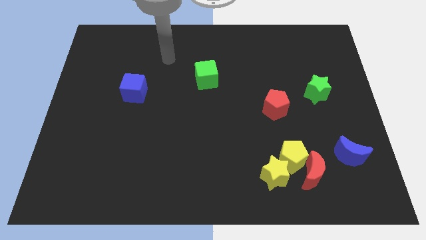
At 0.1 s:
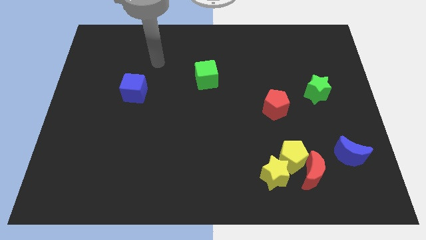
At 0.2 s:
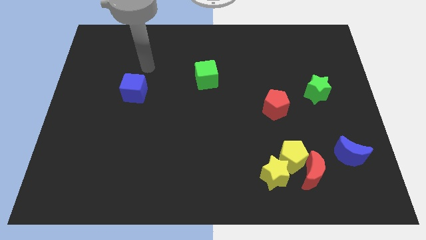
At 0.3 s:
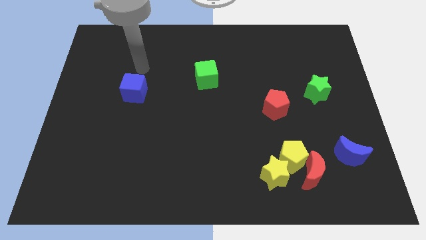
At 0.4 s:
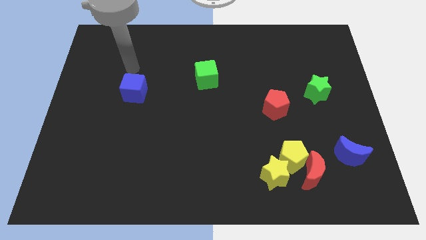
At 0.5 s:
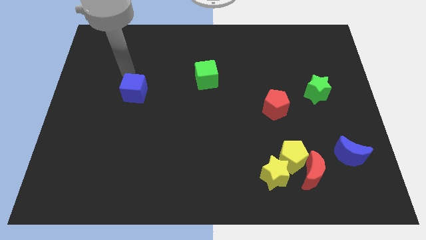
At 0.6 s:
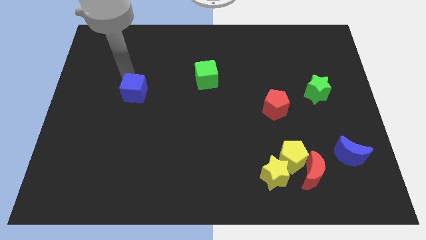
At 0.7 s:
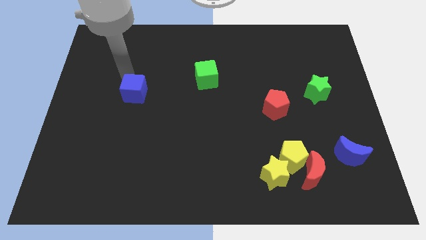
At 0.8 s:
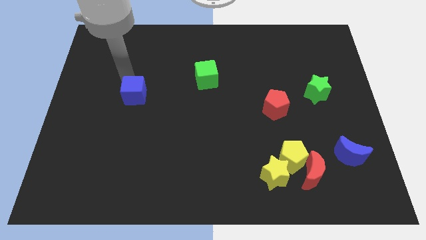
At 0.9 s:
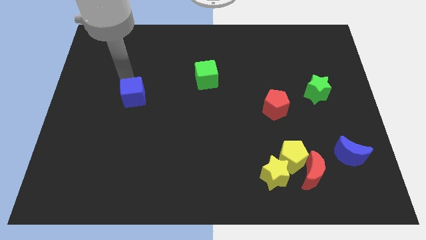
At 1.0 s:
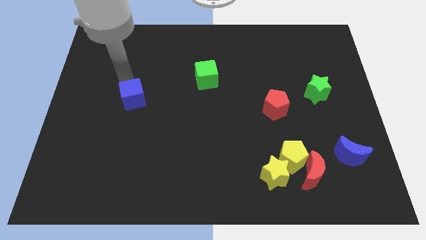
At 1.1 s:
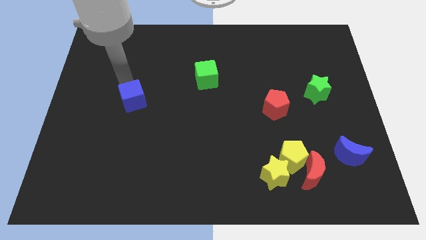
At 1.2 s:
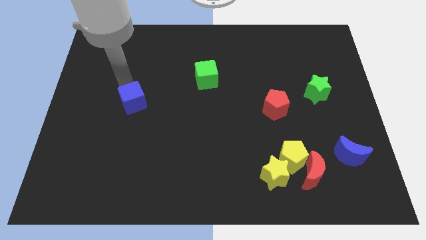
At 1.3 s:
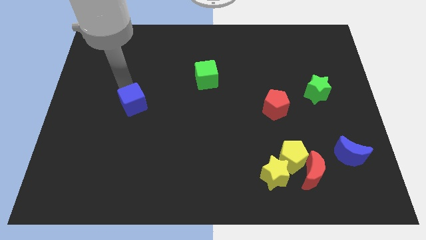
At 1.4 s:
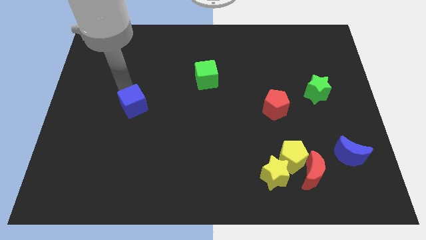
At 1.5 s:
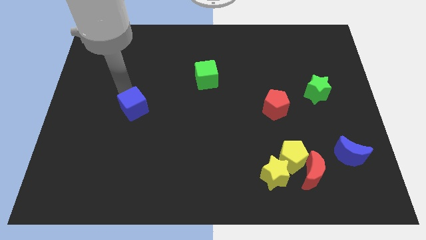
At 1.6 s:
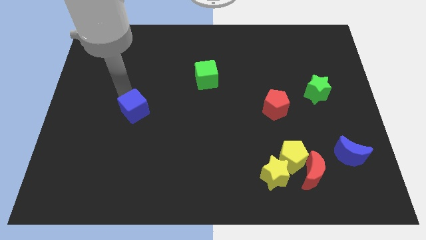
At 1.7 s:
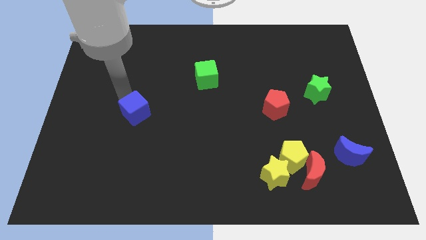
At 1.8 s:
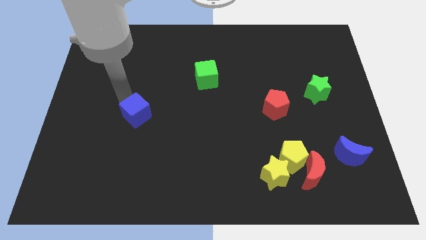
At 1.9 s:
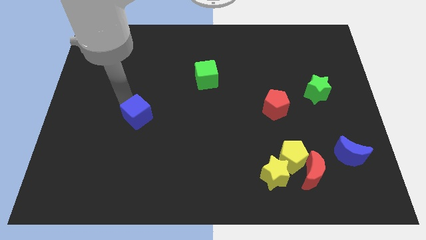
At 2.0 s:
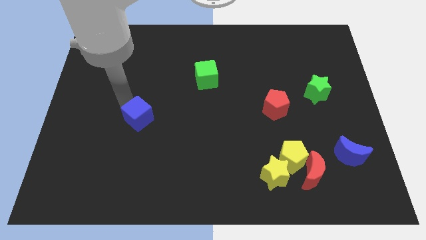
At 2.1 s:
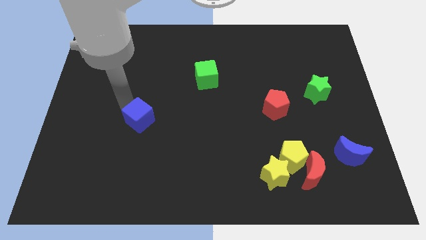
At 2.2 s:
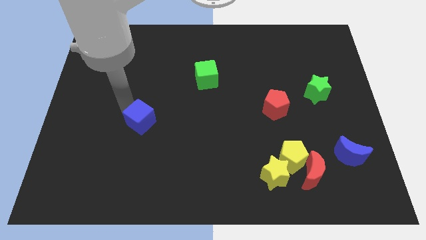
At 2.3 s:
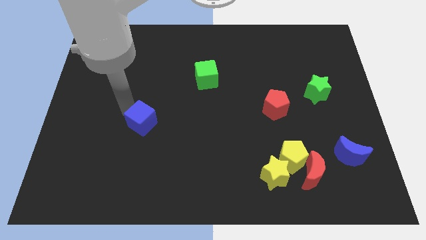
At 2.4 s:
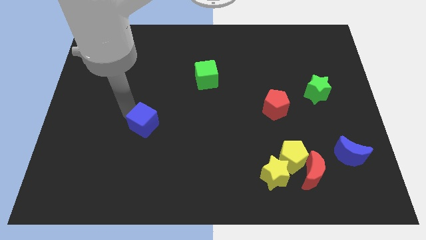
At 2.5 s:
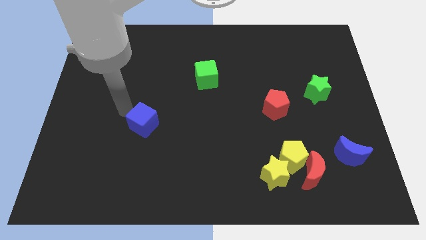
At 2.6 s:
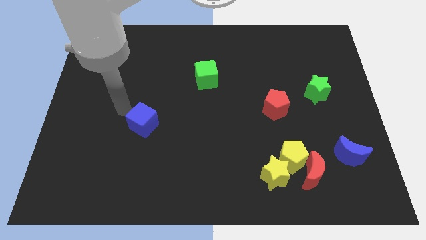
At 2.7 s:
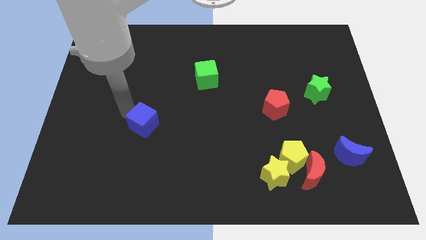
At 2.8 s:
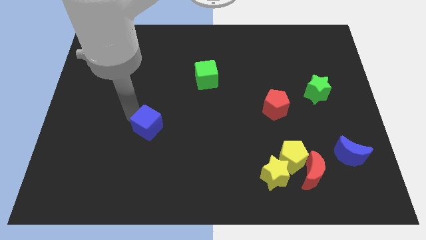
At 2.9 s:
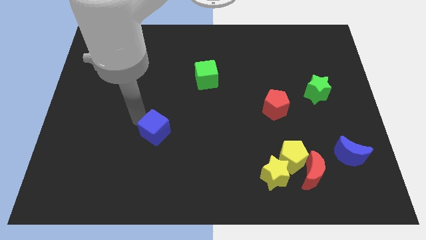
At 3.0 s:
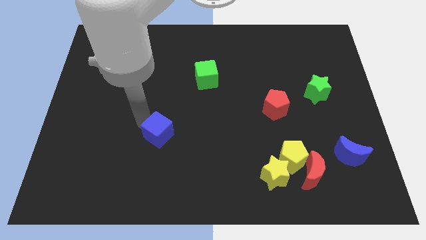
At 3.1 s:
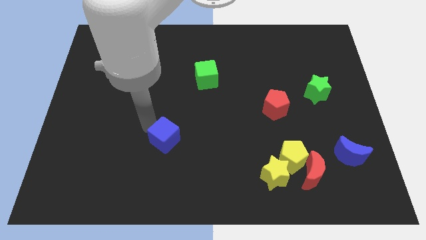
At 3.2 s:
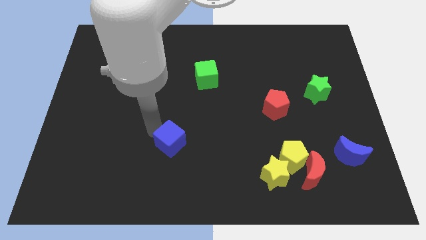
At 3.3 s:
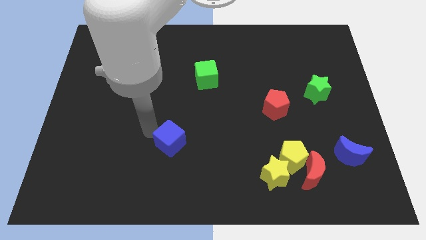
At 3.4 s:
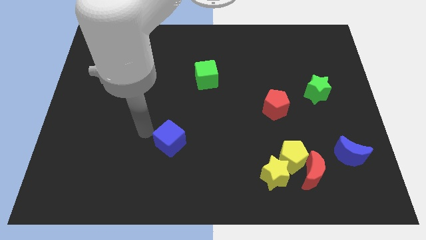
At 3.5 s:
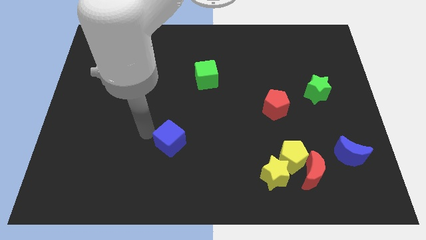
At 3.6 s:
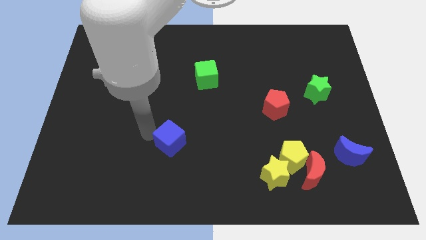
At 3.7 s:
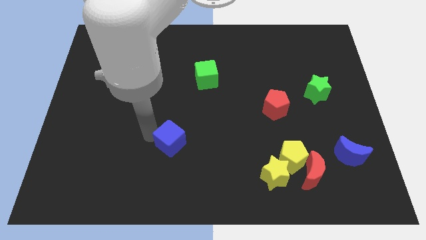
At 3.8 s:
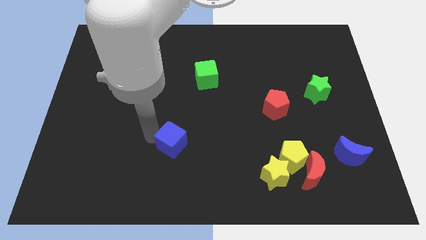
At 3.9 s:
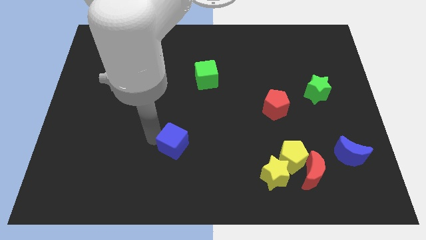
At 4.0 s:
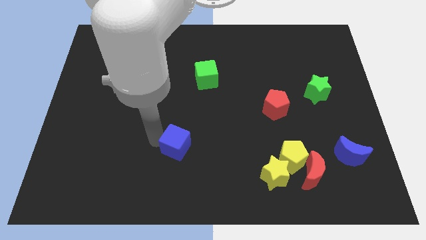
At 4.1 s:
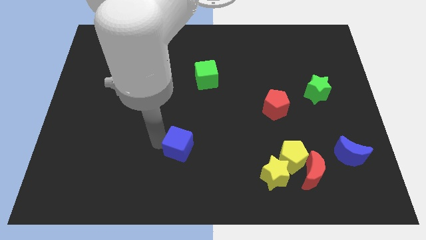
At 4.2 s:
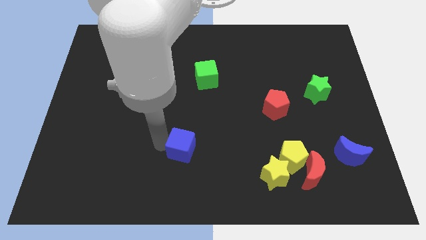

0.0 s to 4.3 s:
move the blue cube downwards and then right

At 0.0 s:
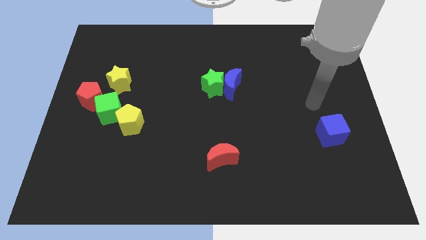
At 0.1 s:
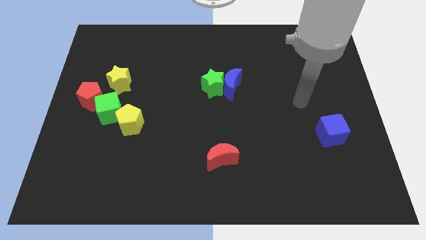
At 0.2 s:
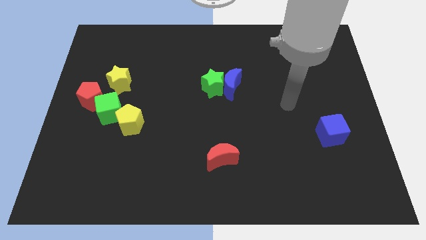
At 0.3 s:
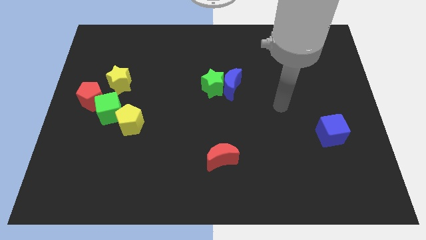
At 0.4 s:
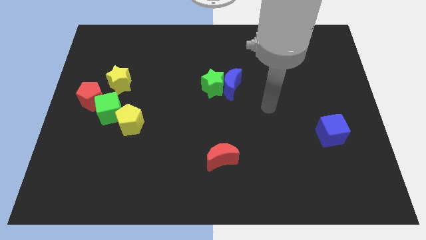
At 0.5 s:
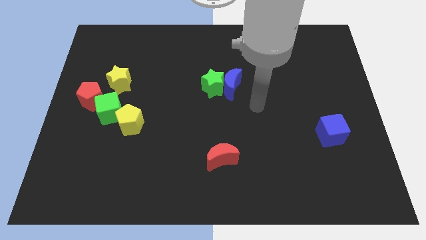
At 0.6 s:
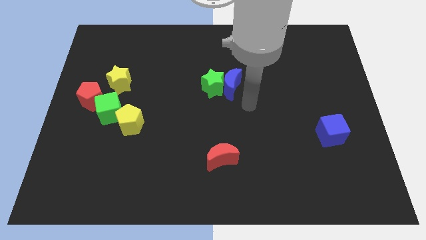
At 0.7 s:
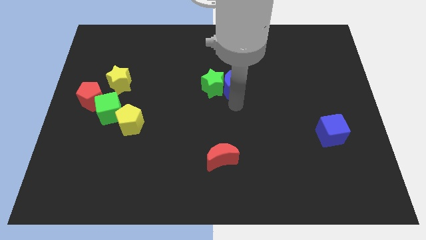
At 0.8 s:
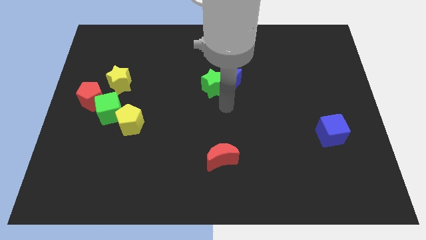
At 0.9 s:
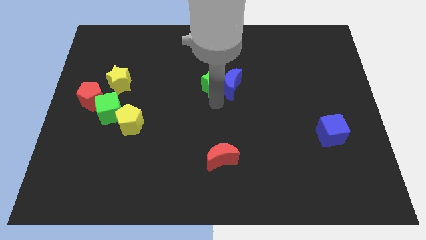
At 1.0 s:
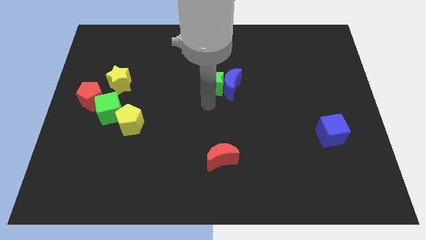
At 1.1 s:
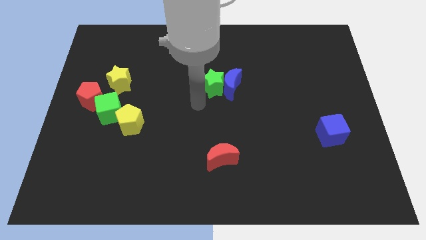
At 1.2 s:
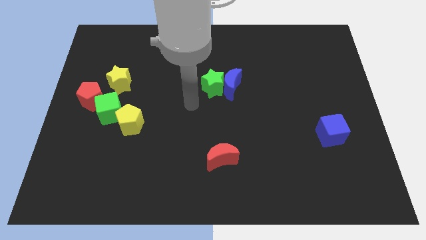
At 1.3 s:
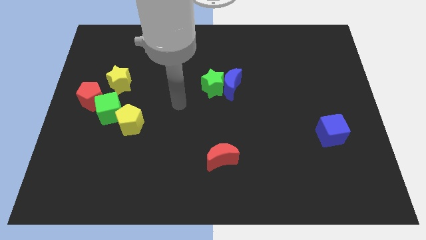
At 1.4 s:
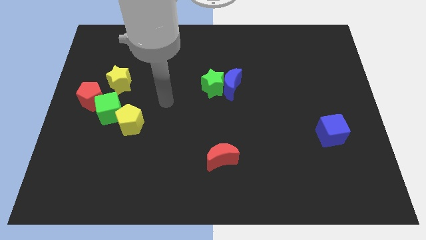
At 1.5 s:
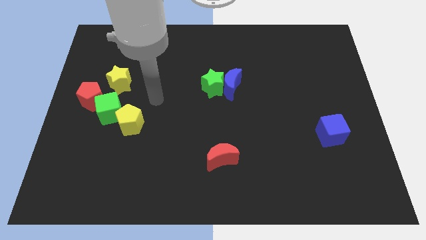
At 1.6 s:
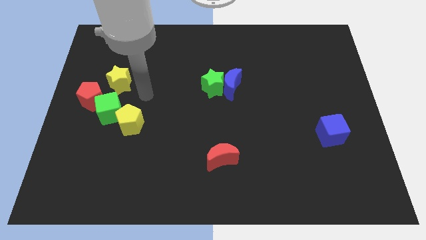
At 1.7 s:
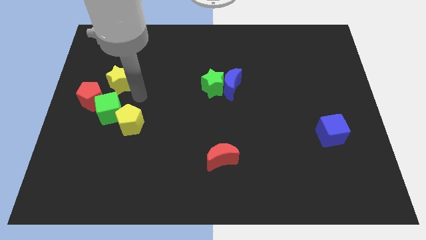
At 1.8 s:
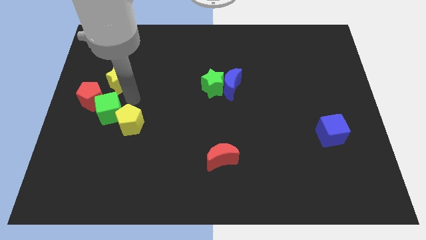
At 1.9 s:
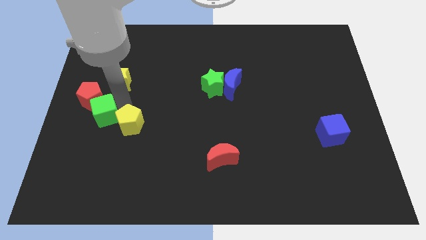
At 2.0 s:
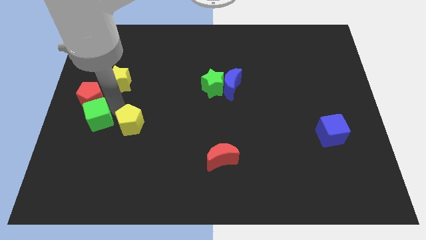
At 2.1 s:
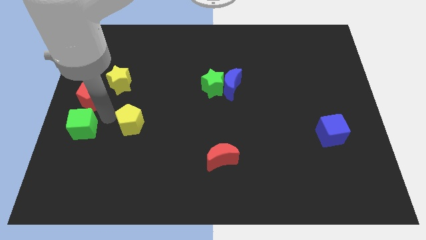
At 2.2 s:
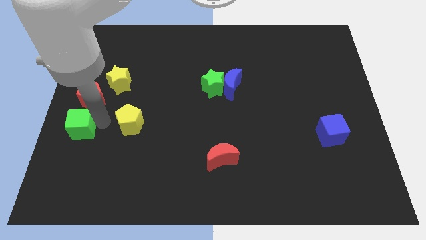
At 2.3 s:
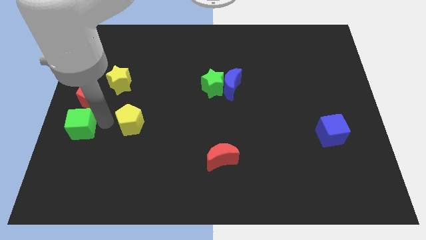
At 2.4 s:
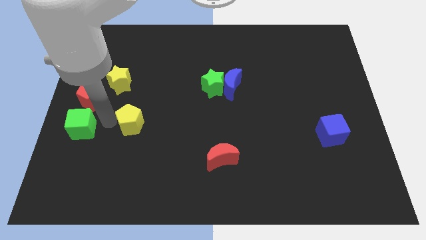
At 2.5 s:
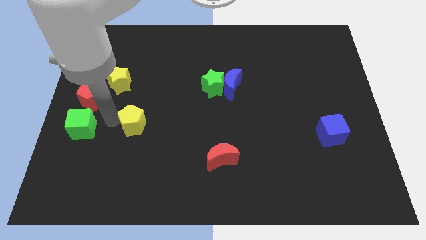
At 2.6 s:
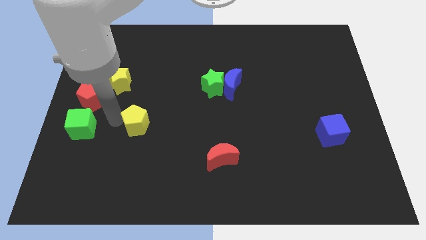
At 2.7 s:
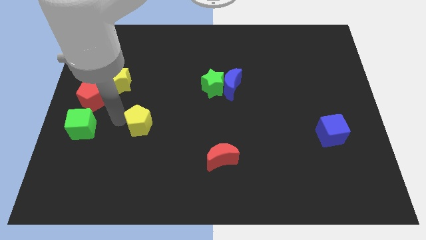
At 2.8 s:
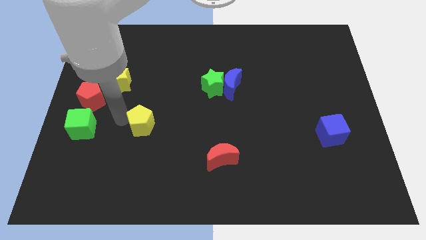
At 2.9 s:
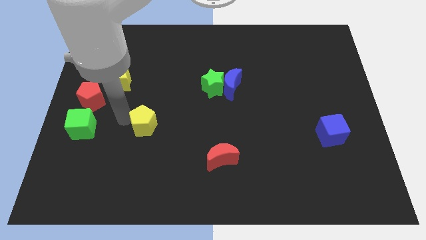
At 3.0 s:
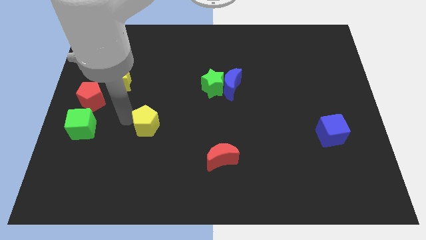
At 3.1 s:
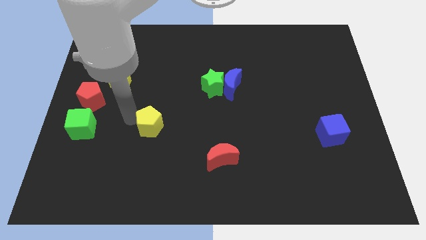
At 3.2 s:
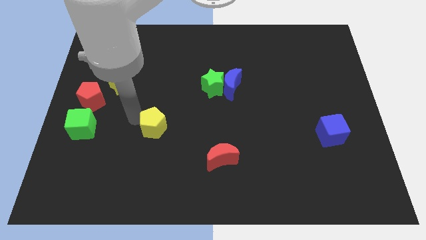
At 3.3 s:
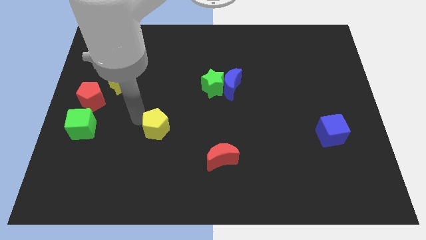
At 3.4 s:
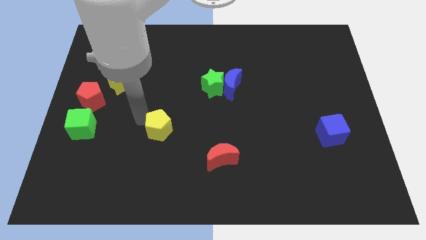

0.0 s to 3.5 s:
move the yellow pentagon to the right a little

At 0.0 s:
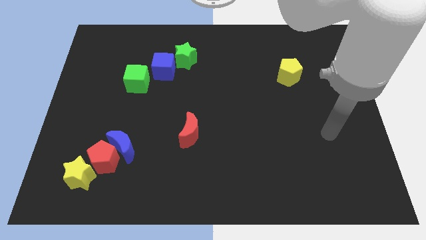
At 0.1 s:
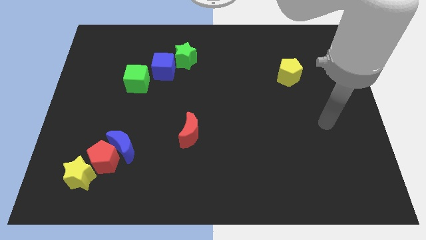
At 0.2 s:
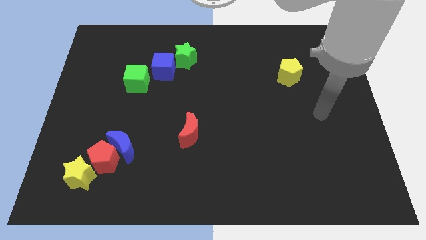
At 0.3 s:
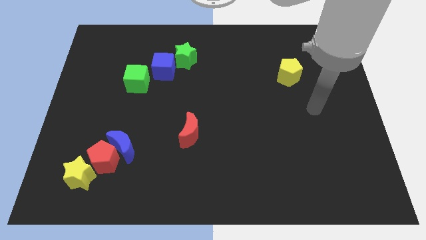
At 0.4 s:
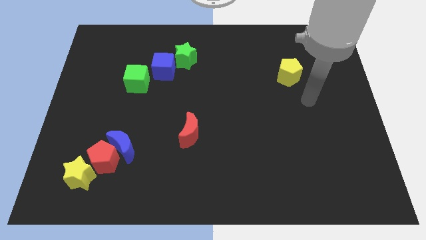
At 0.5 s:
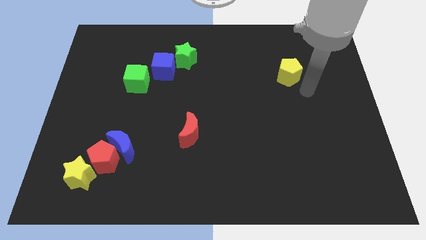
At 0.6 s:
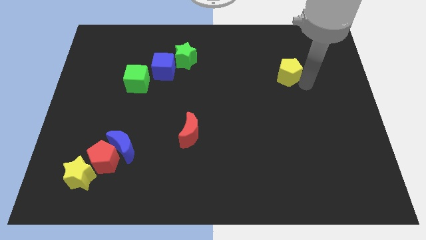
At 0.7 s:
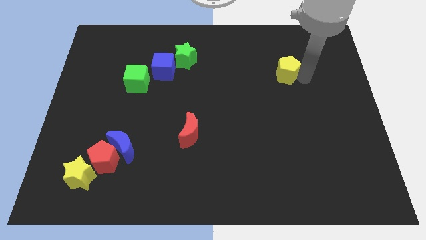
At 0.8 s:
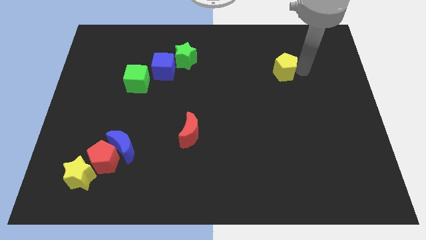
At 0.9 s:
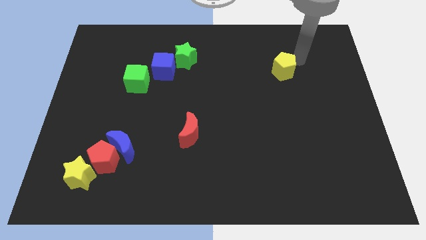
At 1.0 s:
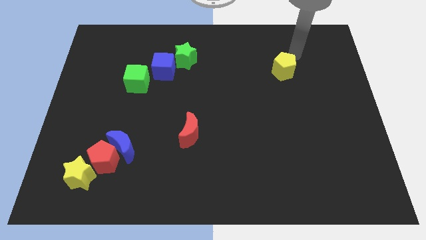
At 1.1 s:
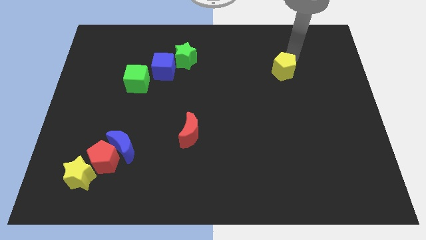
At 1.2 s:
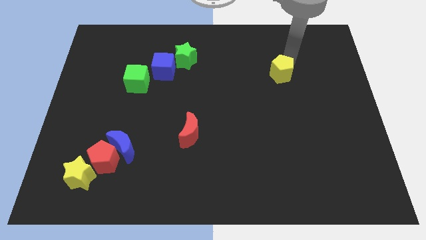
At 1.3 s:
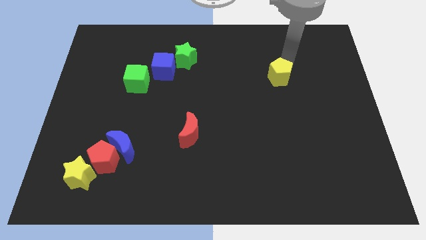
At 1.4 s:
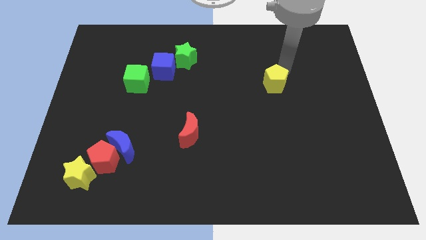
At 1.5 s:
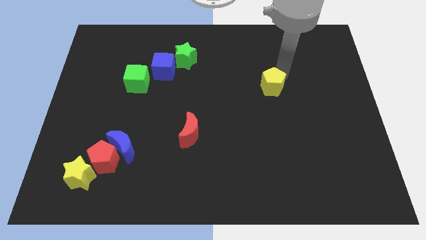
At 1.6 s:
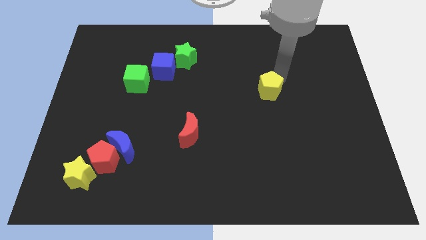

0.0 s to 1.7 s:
push the yellow pentagon down and left slightly
